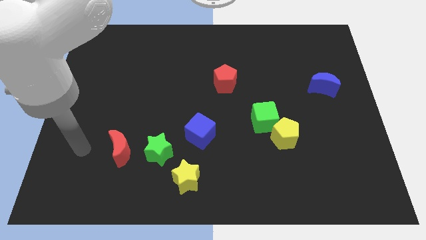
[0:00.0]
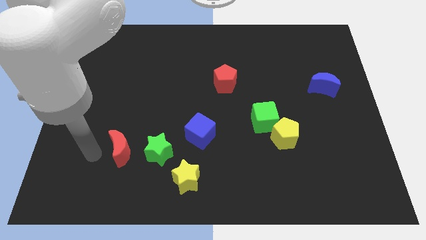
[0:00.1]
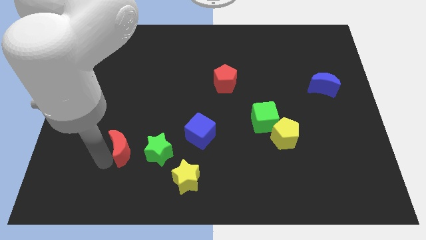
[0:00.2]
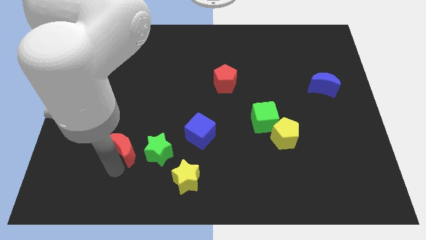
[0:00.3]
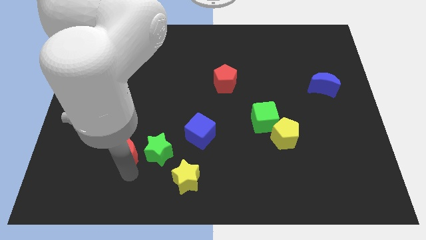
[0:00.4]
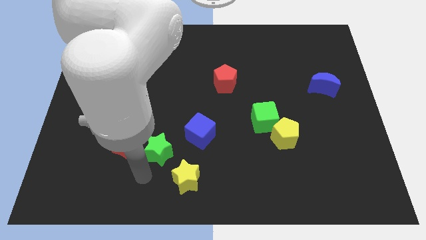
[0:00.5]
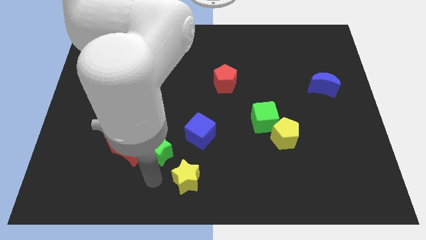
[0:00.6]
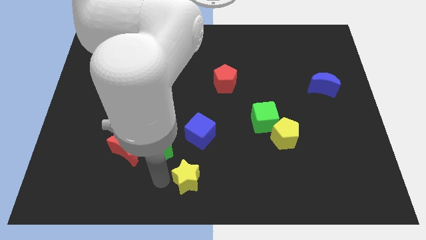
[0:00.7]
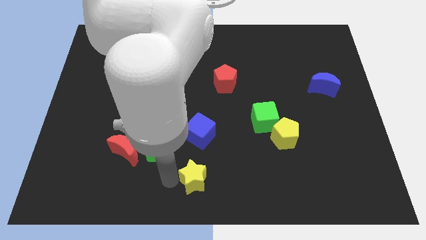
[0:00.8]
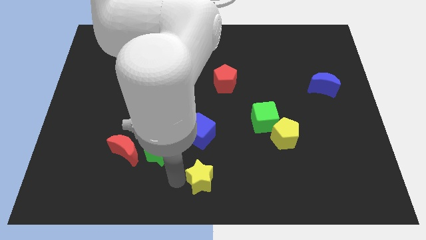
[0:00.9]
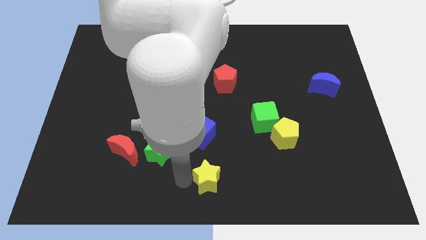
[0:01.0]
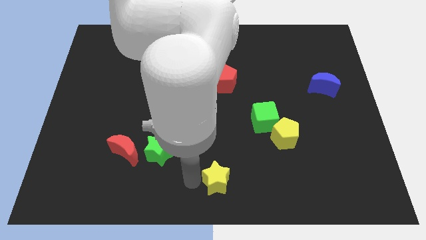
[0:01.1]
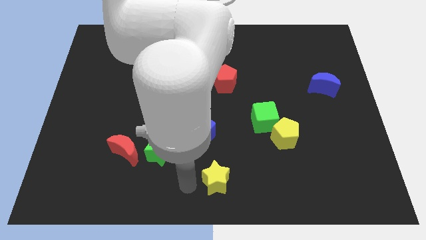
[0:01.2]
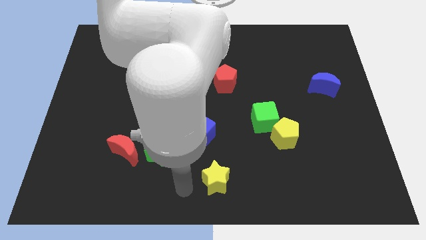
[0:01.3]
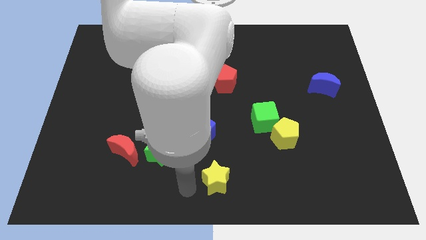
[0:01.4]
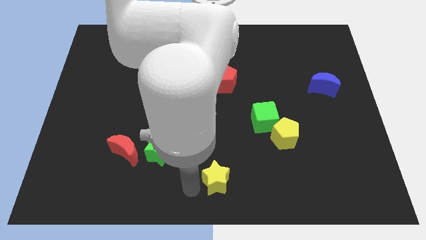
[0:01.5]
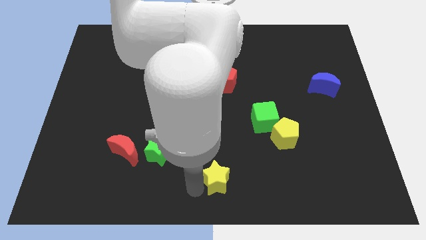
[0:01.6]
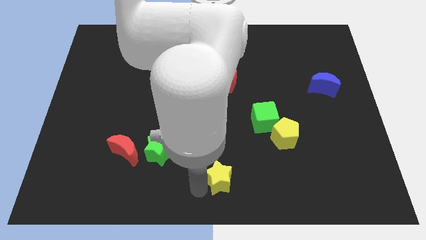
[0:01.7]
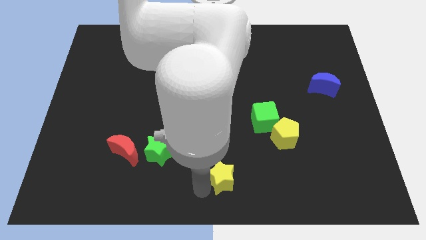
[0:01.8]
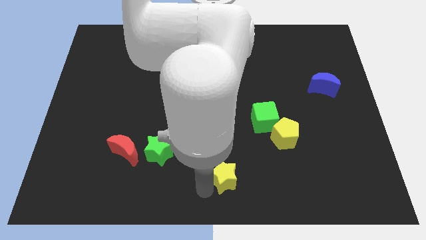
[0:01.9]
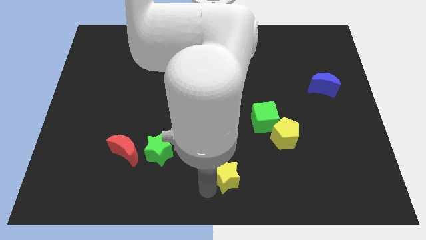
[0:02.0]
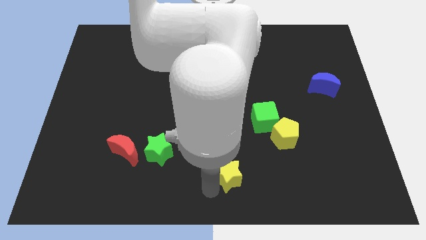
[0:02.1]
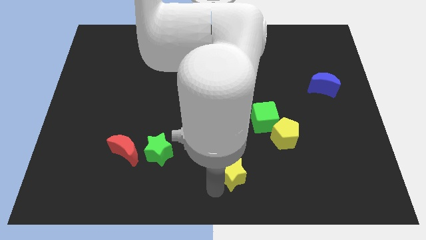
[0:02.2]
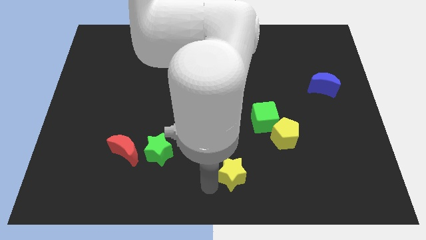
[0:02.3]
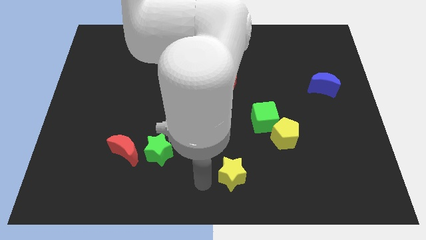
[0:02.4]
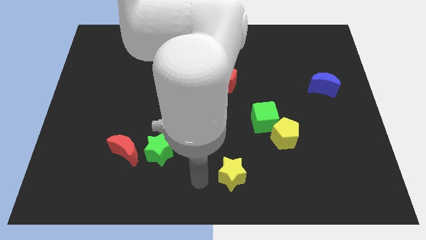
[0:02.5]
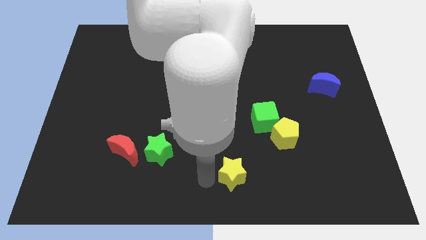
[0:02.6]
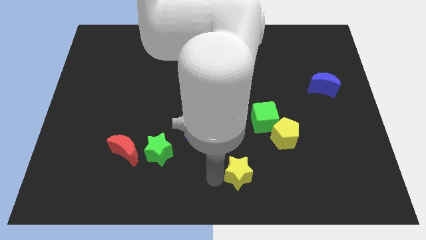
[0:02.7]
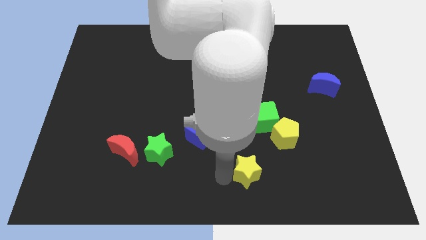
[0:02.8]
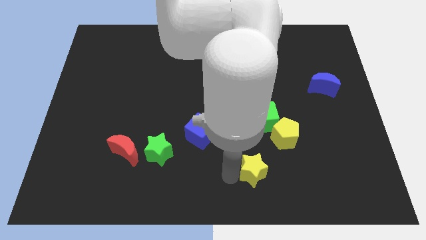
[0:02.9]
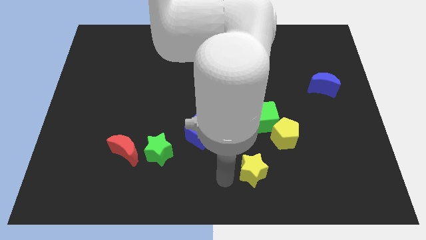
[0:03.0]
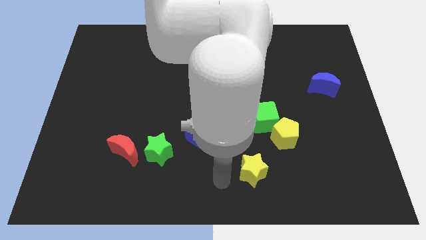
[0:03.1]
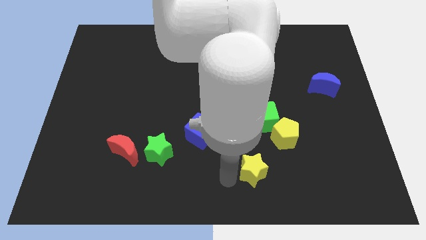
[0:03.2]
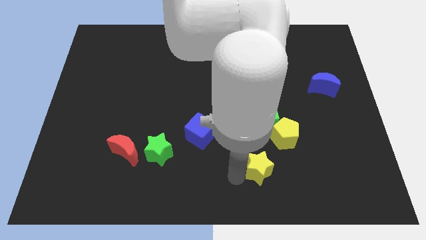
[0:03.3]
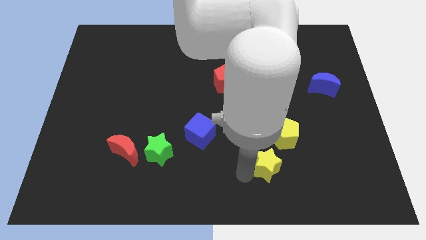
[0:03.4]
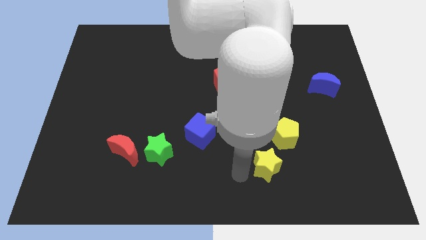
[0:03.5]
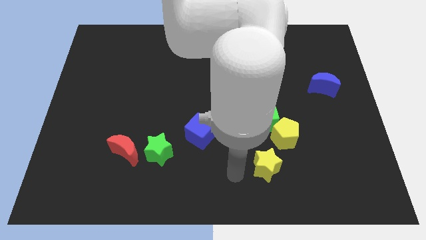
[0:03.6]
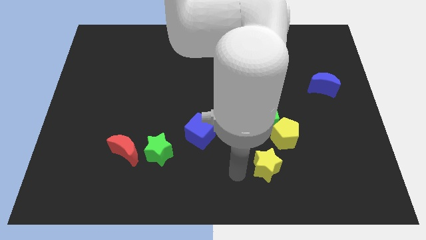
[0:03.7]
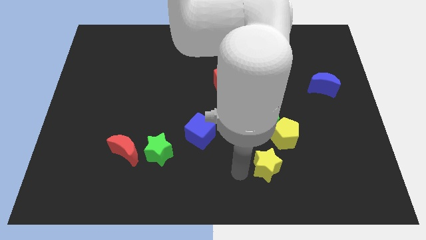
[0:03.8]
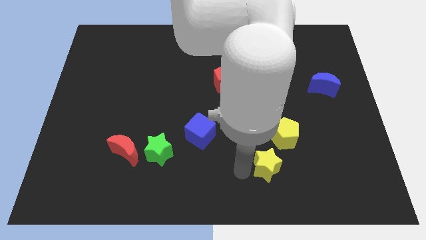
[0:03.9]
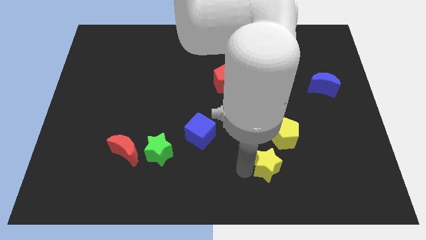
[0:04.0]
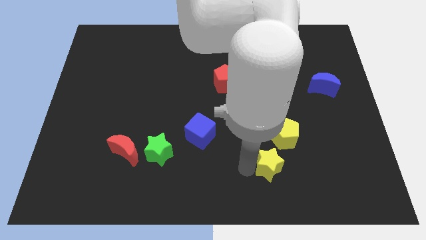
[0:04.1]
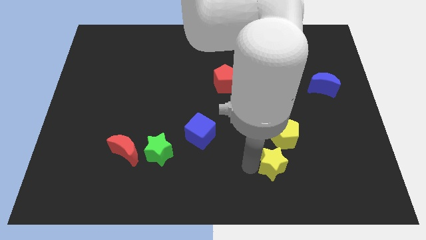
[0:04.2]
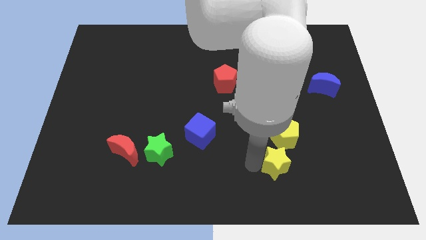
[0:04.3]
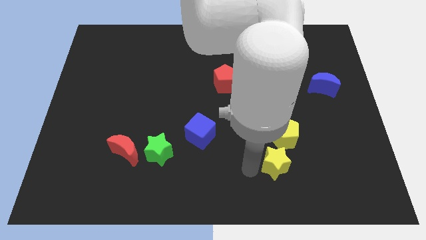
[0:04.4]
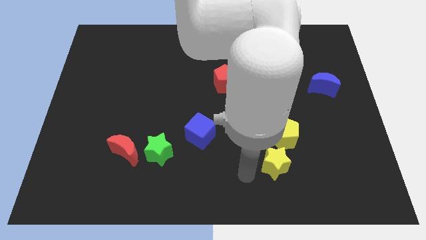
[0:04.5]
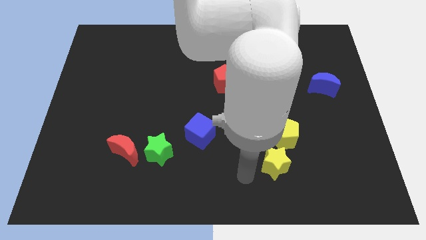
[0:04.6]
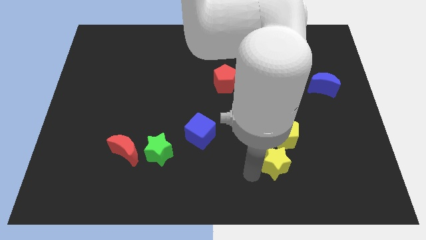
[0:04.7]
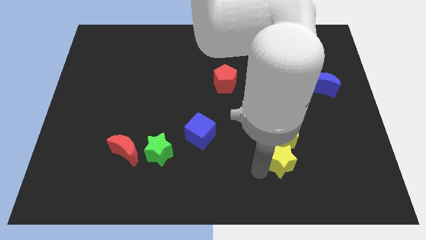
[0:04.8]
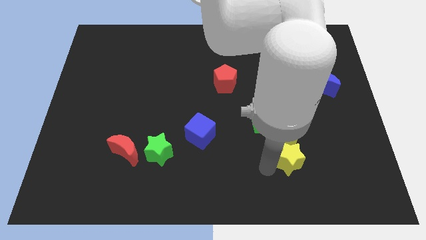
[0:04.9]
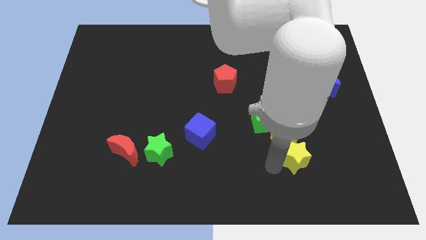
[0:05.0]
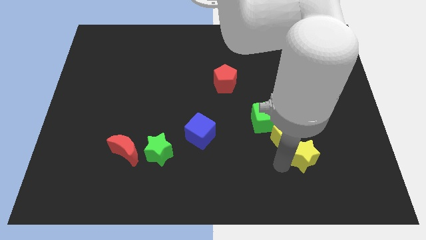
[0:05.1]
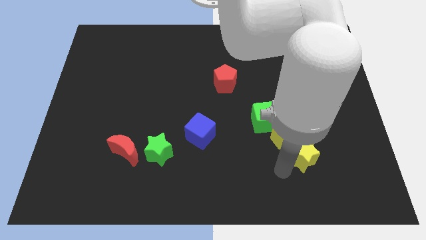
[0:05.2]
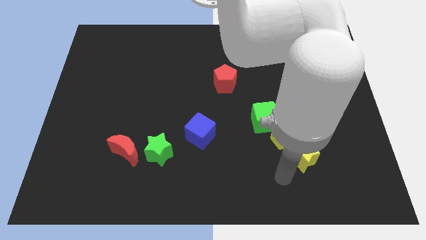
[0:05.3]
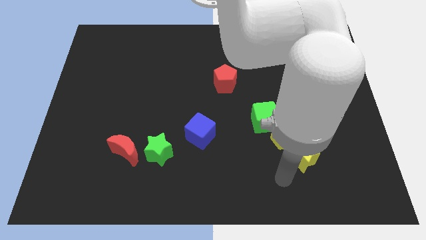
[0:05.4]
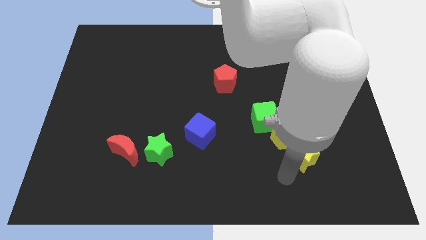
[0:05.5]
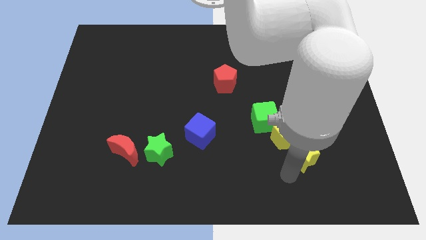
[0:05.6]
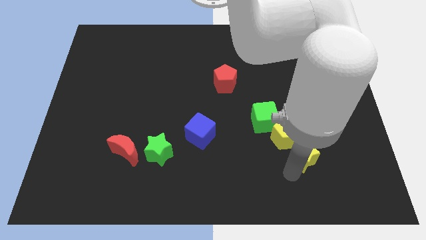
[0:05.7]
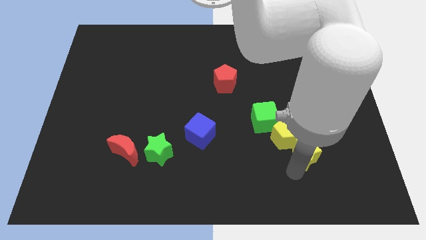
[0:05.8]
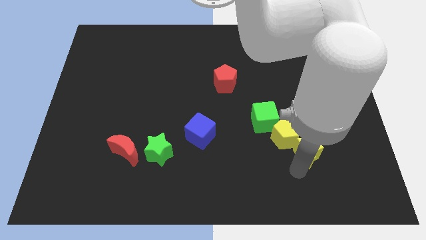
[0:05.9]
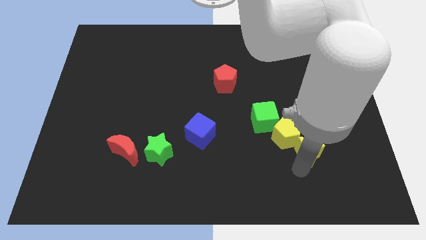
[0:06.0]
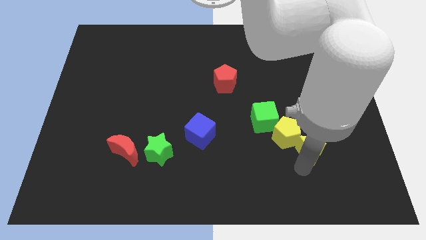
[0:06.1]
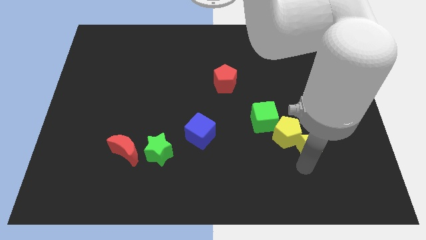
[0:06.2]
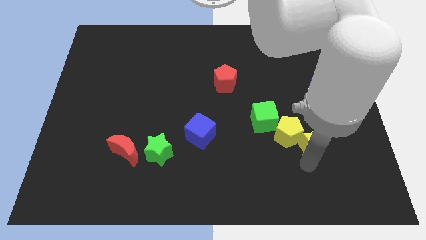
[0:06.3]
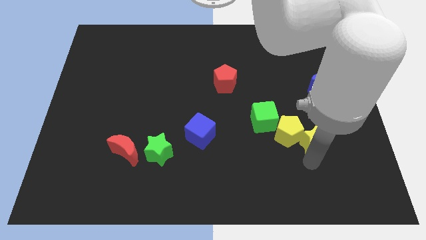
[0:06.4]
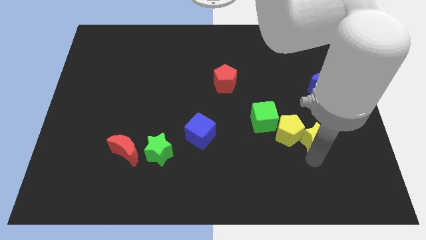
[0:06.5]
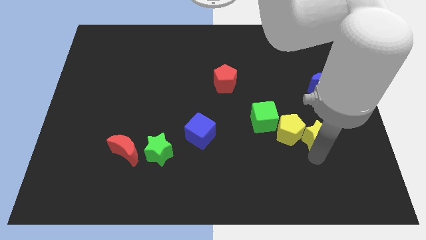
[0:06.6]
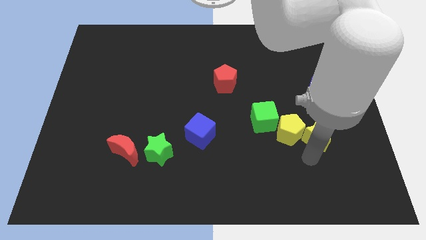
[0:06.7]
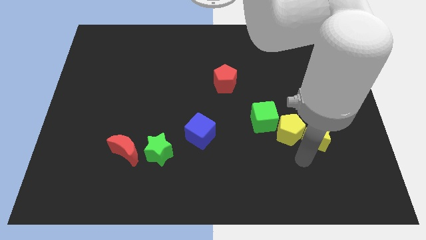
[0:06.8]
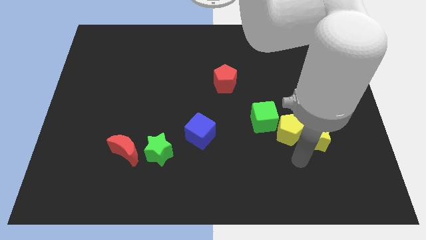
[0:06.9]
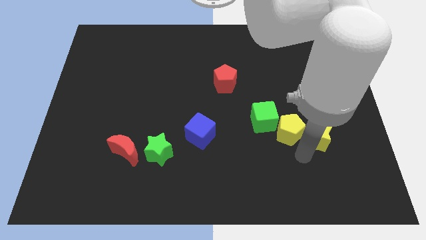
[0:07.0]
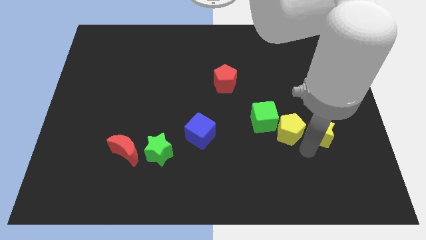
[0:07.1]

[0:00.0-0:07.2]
slide the yellow star to the bottom side of the blue moon
